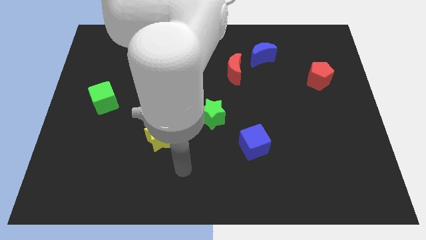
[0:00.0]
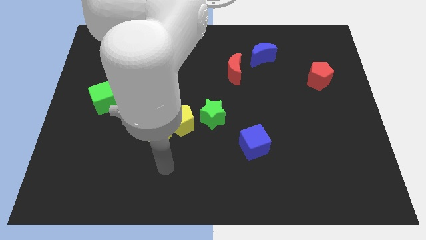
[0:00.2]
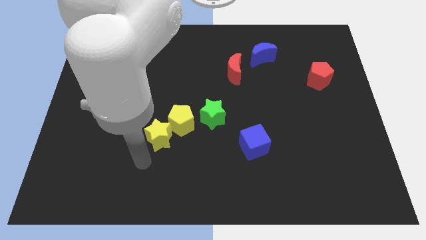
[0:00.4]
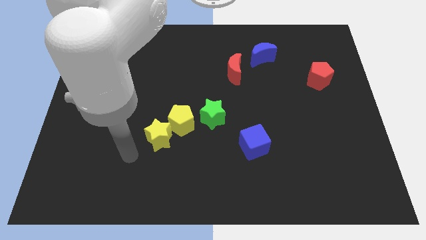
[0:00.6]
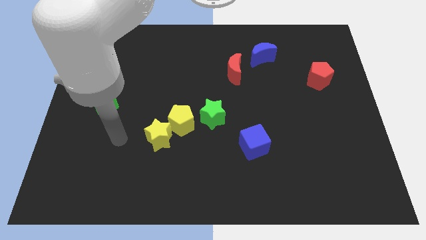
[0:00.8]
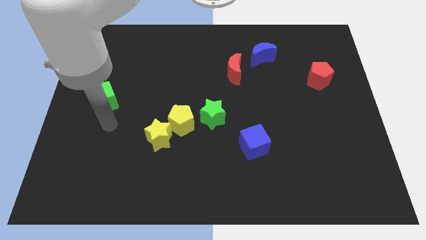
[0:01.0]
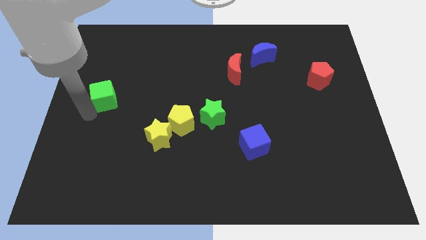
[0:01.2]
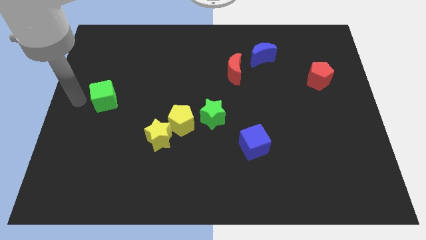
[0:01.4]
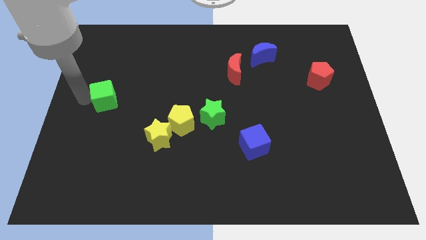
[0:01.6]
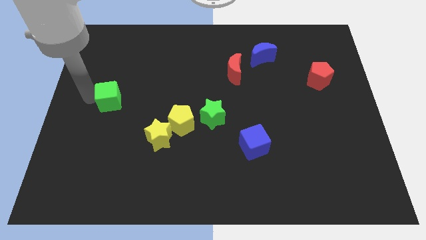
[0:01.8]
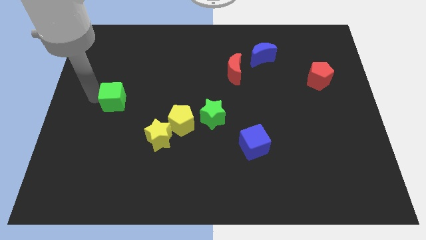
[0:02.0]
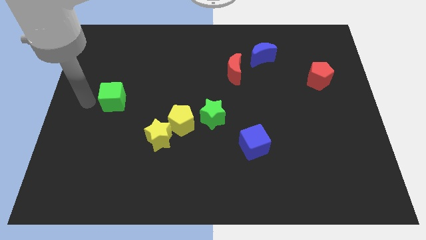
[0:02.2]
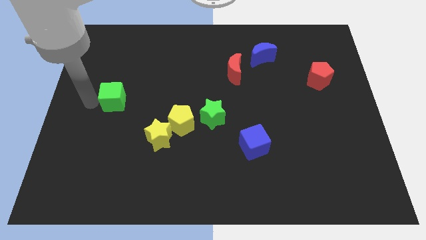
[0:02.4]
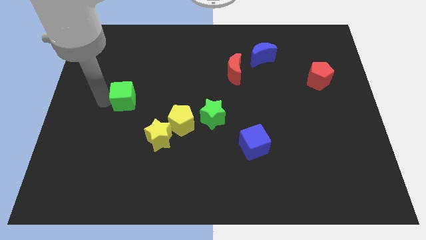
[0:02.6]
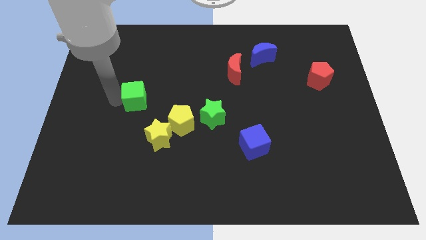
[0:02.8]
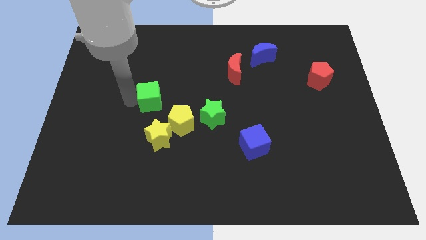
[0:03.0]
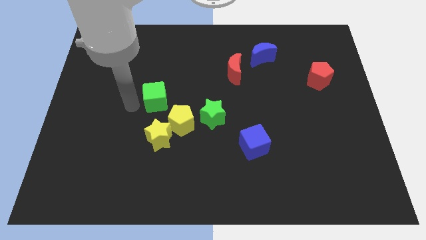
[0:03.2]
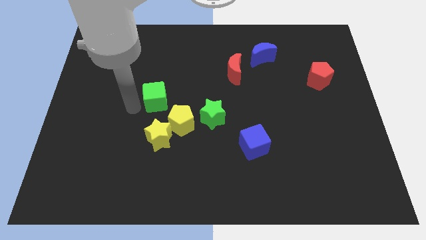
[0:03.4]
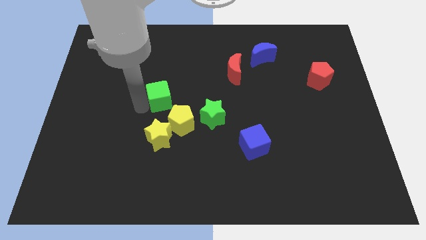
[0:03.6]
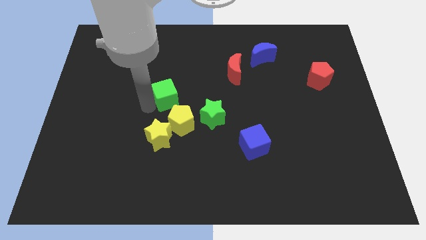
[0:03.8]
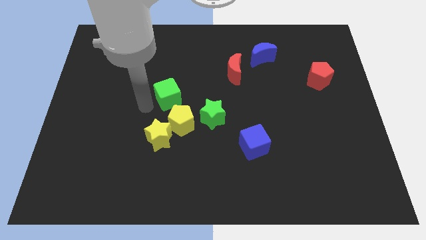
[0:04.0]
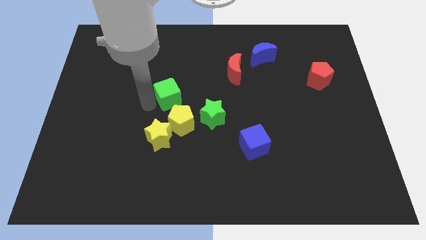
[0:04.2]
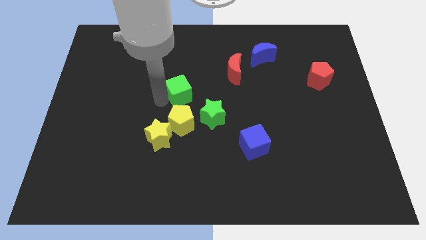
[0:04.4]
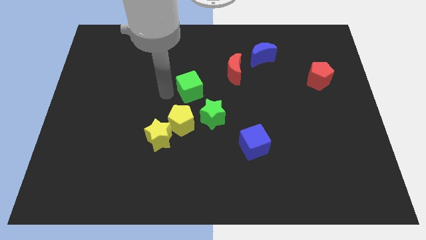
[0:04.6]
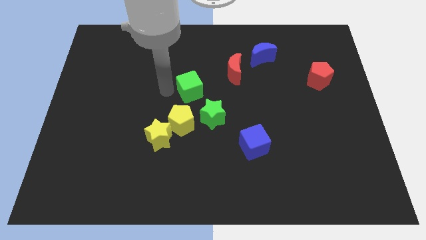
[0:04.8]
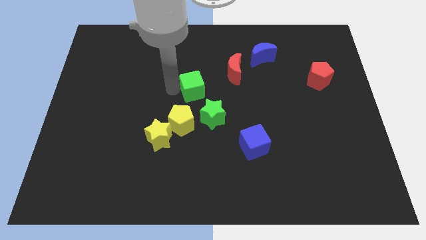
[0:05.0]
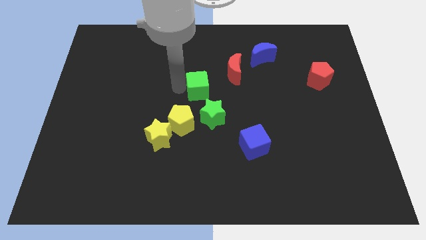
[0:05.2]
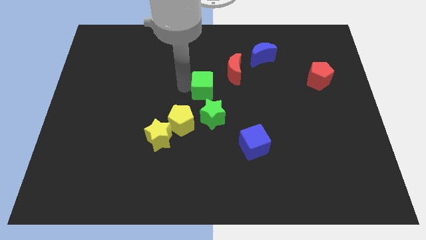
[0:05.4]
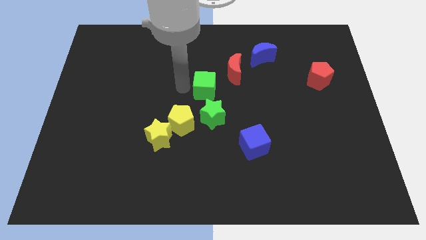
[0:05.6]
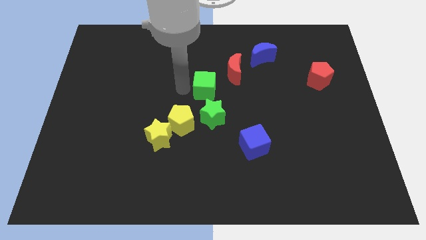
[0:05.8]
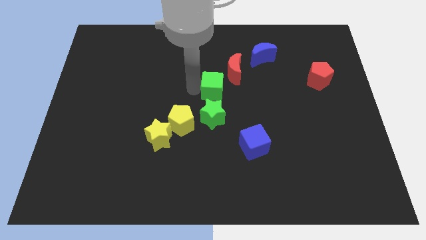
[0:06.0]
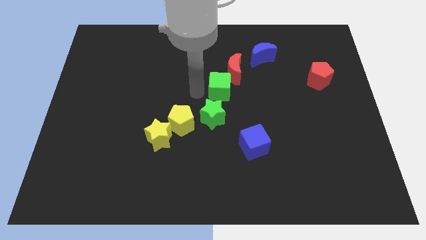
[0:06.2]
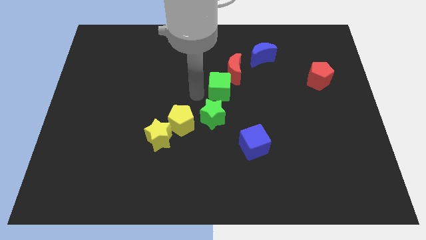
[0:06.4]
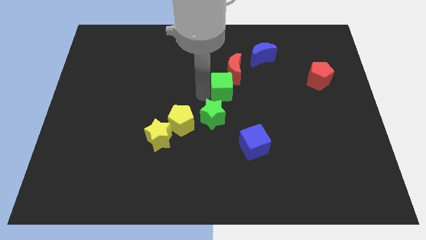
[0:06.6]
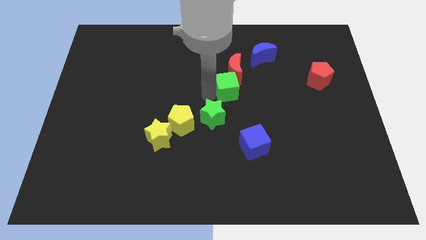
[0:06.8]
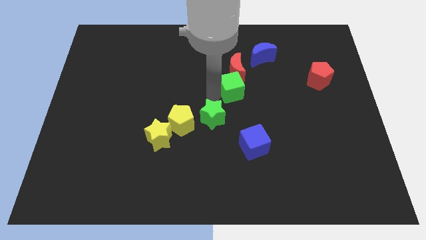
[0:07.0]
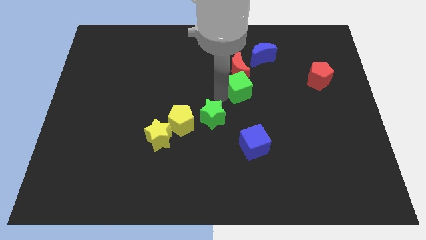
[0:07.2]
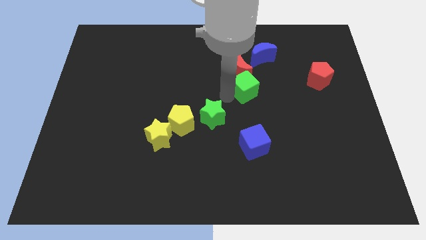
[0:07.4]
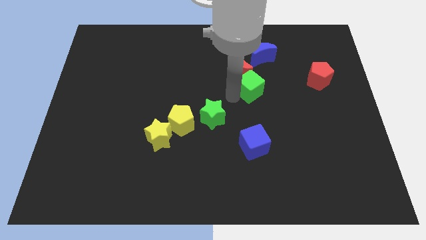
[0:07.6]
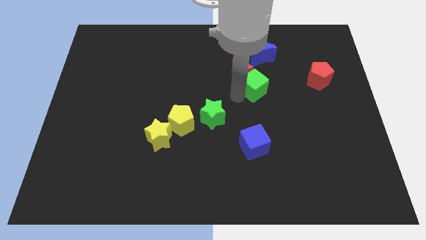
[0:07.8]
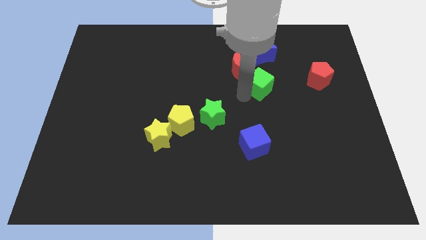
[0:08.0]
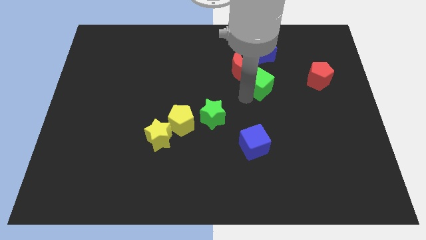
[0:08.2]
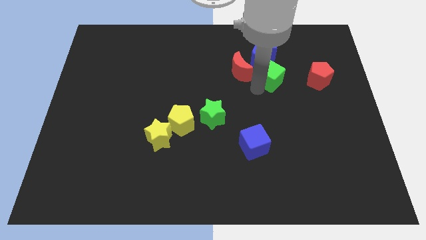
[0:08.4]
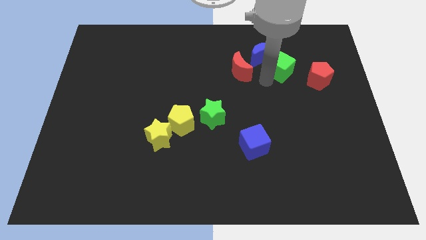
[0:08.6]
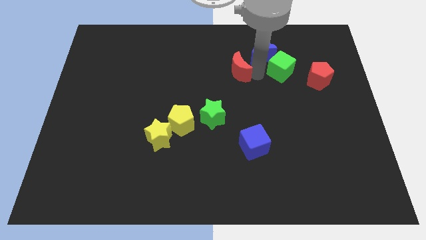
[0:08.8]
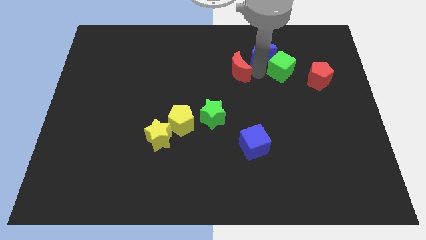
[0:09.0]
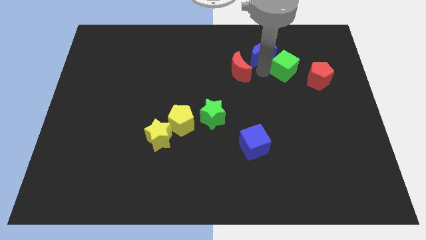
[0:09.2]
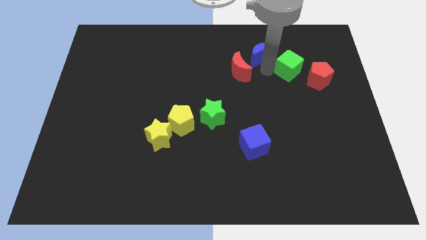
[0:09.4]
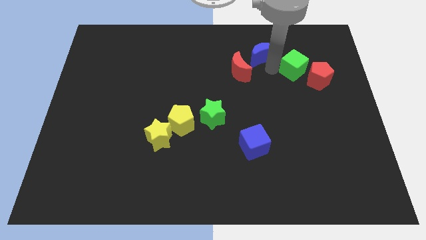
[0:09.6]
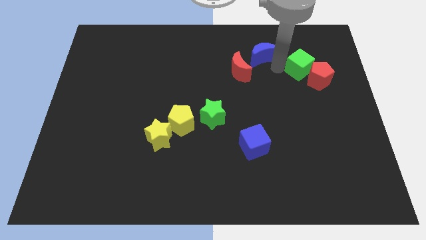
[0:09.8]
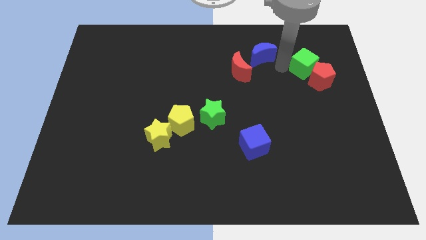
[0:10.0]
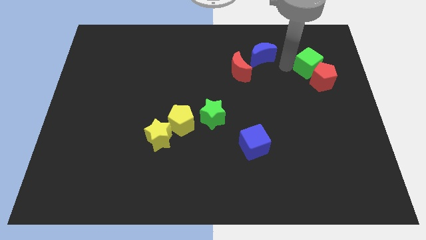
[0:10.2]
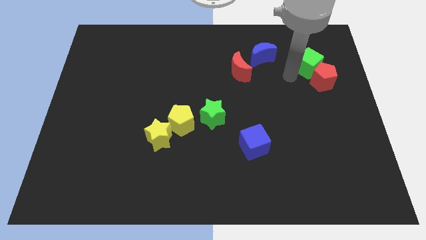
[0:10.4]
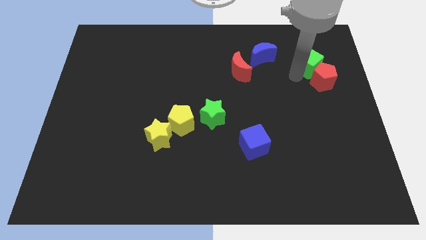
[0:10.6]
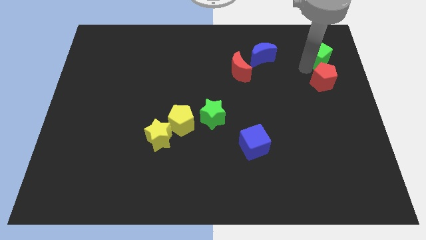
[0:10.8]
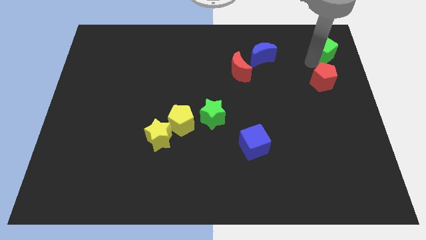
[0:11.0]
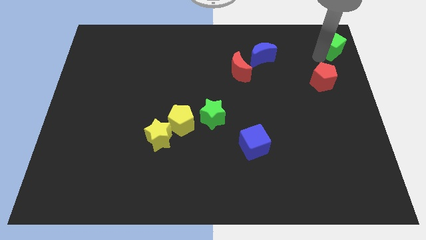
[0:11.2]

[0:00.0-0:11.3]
move the green cube to the upper right corner

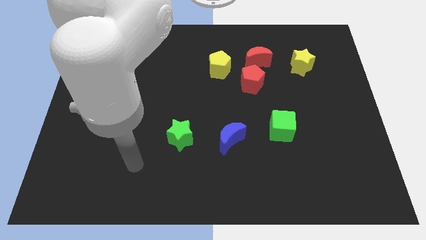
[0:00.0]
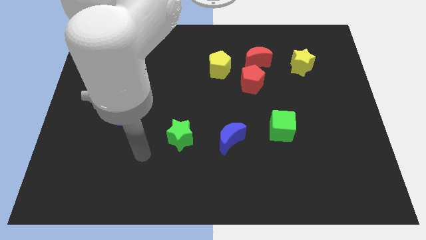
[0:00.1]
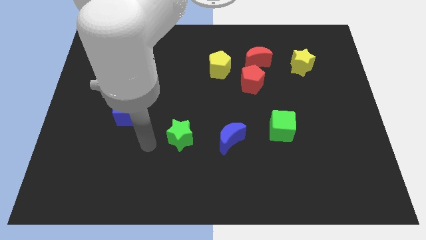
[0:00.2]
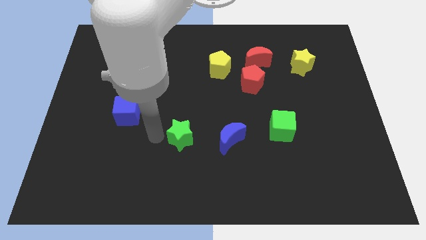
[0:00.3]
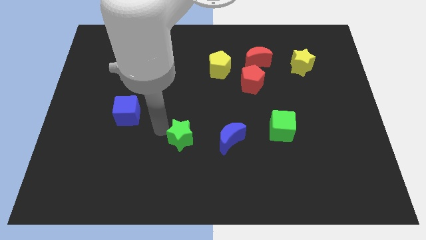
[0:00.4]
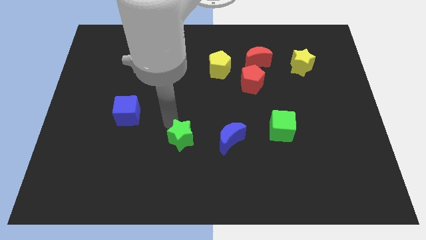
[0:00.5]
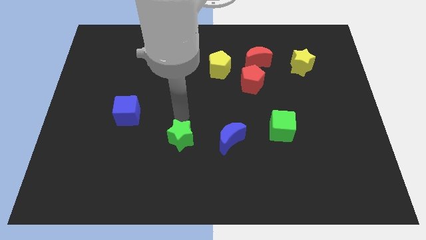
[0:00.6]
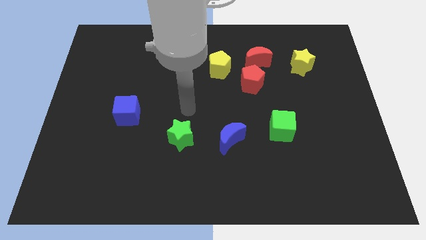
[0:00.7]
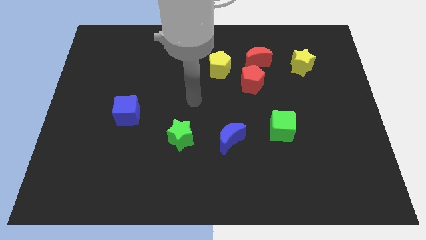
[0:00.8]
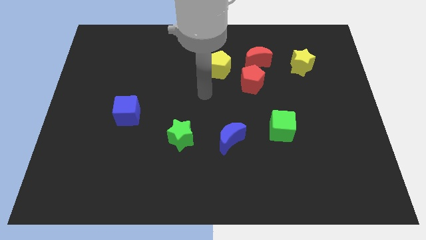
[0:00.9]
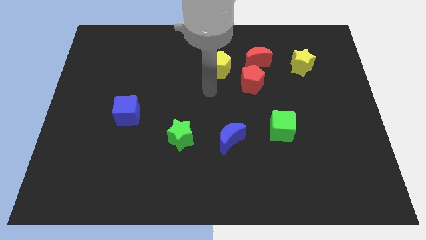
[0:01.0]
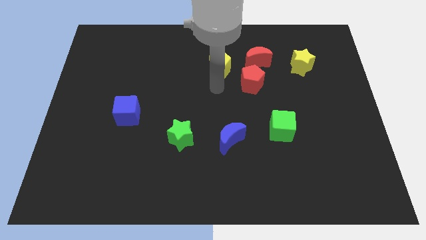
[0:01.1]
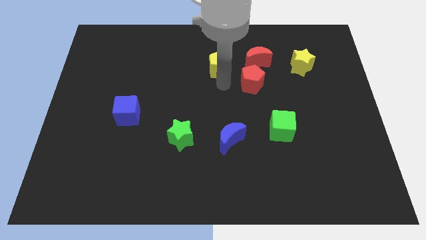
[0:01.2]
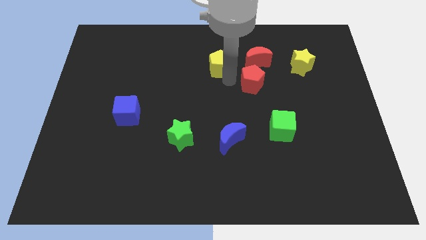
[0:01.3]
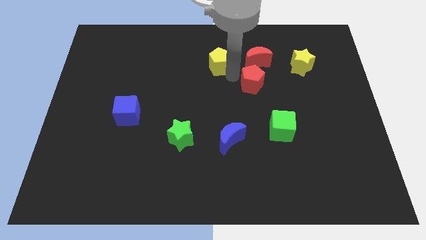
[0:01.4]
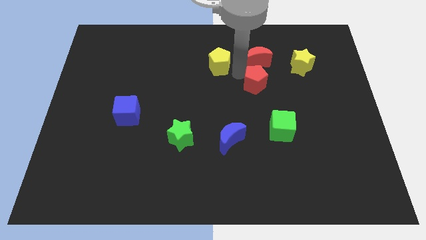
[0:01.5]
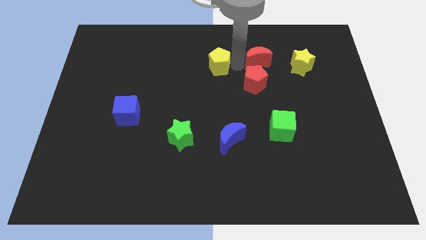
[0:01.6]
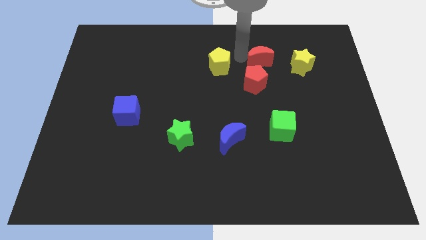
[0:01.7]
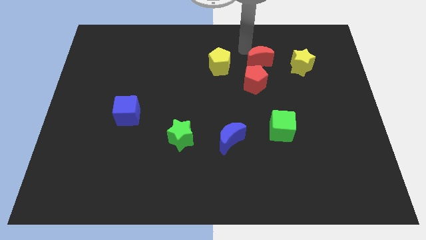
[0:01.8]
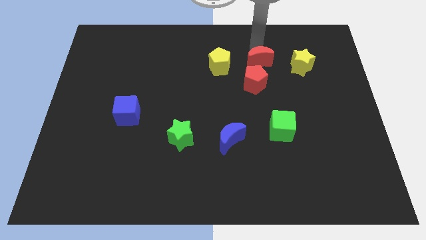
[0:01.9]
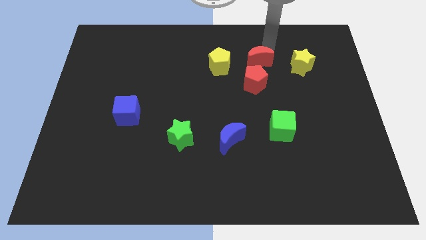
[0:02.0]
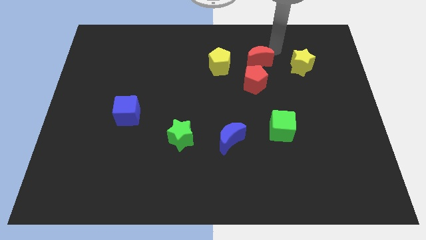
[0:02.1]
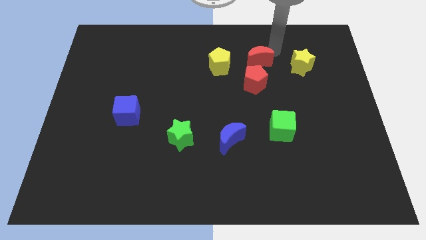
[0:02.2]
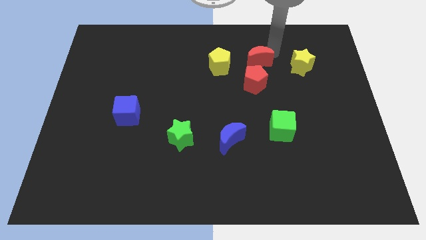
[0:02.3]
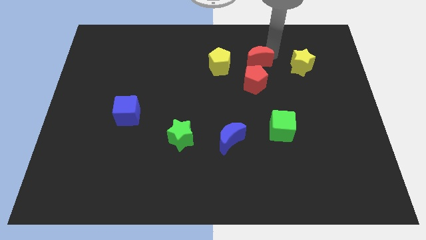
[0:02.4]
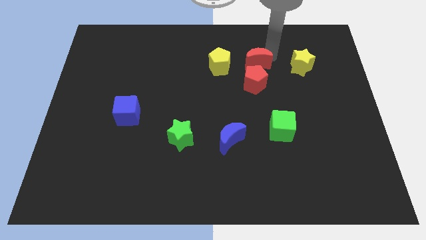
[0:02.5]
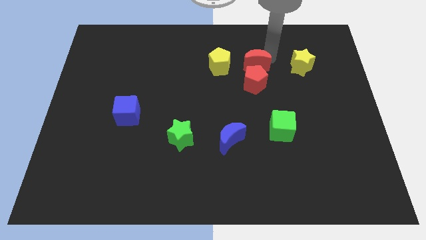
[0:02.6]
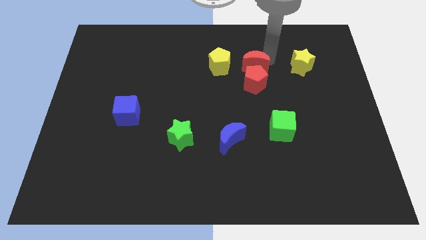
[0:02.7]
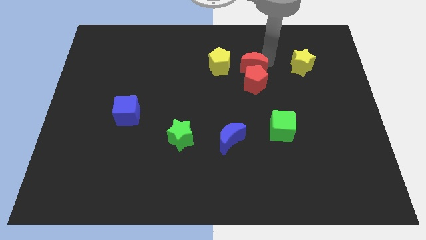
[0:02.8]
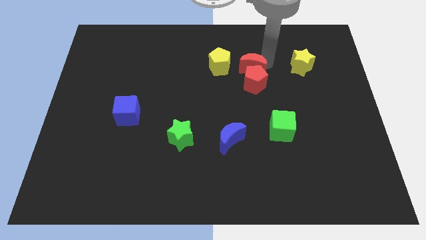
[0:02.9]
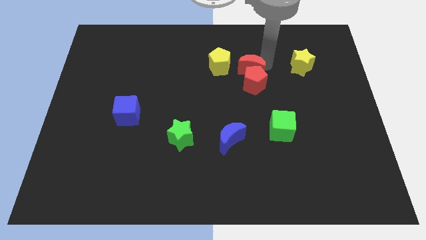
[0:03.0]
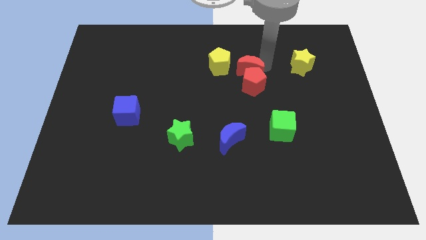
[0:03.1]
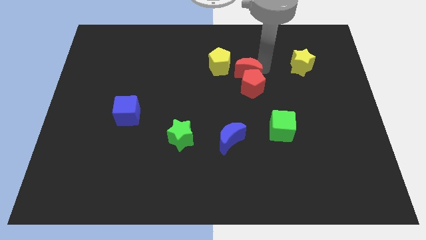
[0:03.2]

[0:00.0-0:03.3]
put the red moon to the center
